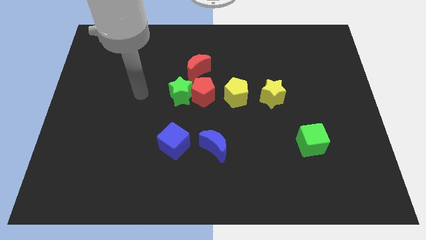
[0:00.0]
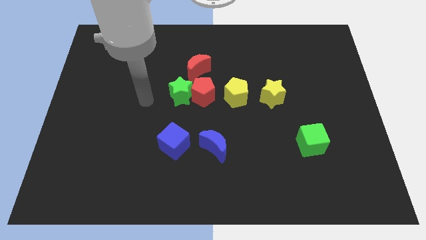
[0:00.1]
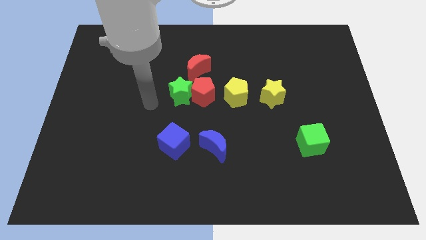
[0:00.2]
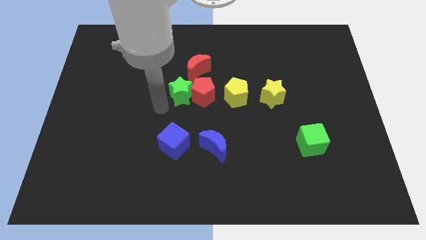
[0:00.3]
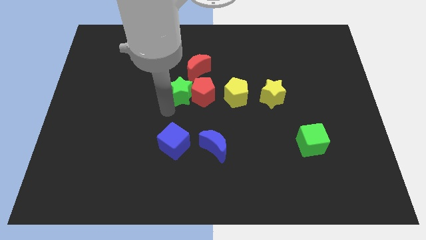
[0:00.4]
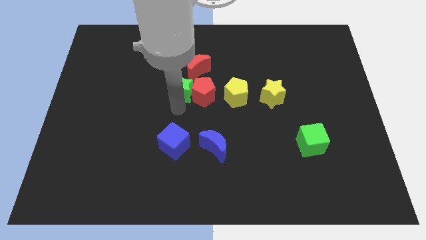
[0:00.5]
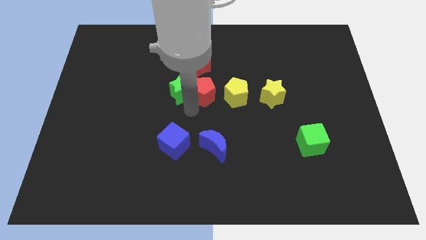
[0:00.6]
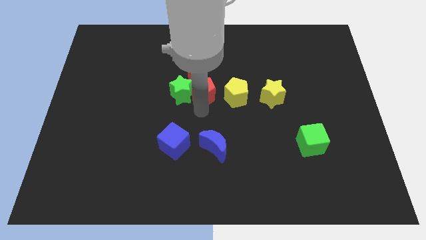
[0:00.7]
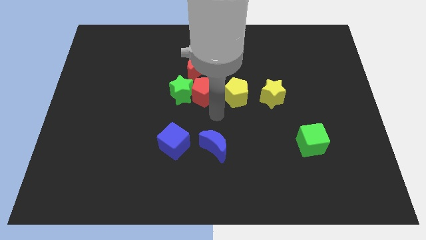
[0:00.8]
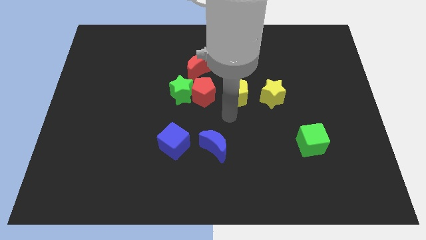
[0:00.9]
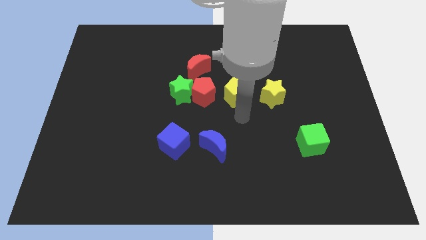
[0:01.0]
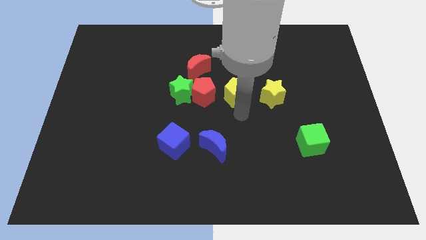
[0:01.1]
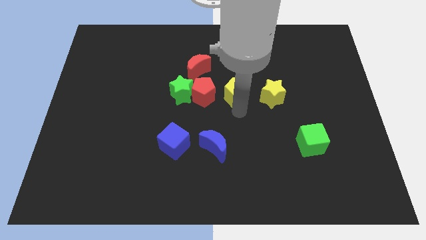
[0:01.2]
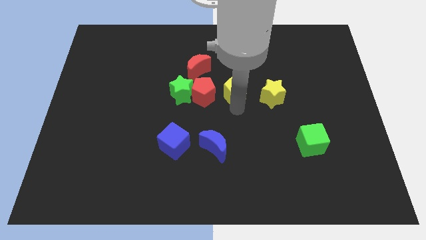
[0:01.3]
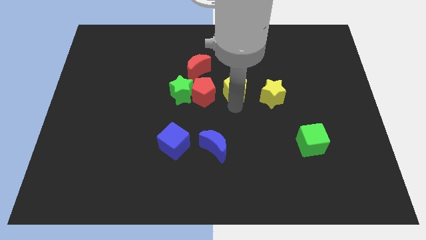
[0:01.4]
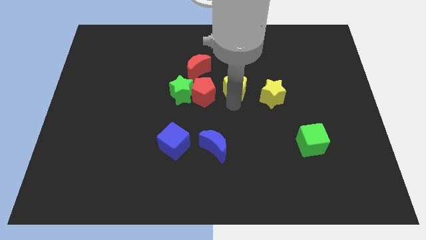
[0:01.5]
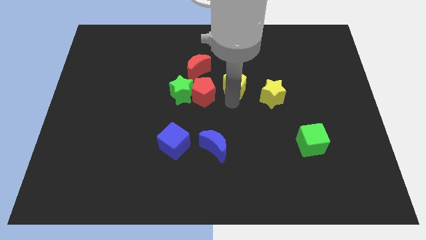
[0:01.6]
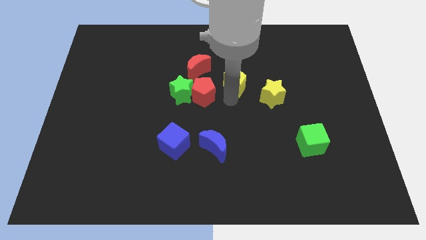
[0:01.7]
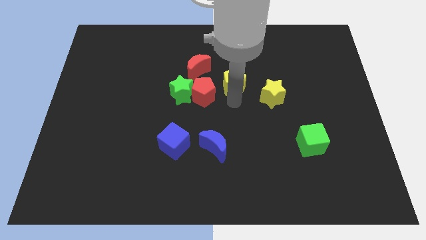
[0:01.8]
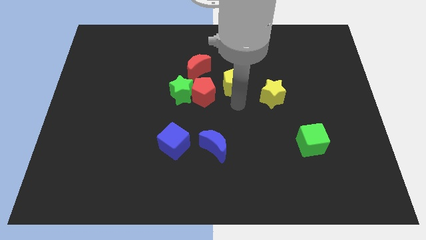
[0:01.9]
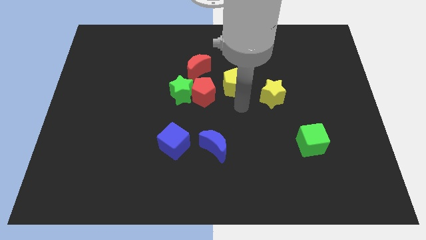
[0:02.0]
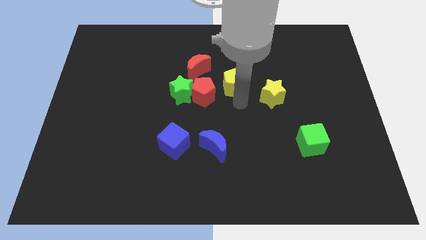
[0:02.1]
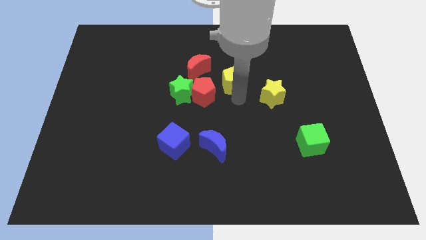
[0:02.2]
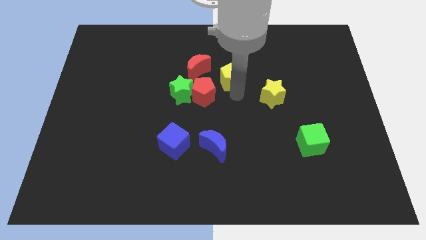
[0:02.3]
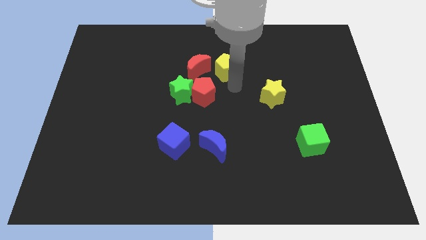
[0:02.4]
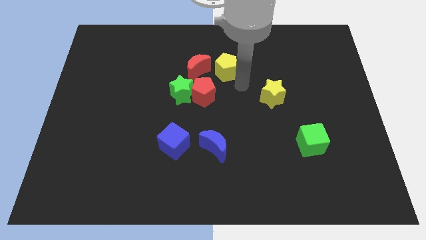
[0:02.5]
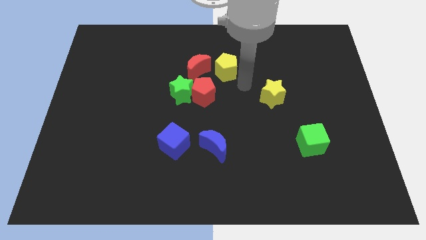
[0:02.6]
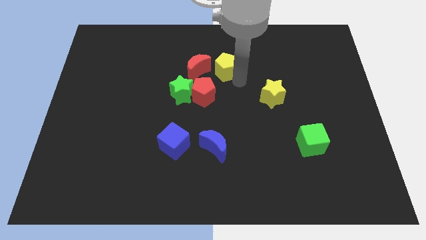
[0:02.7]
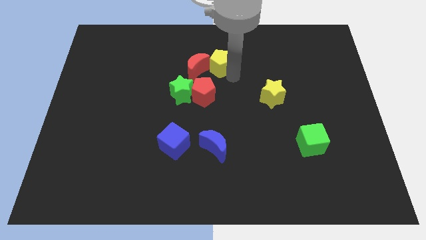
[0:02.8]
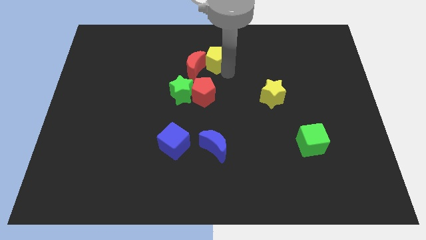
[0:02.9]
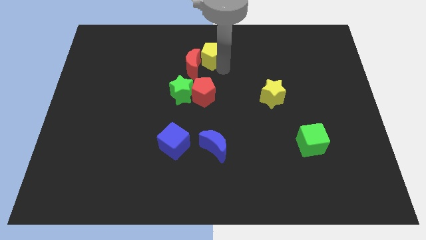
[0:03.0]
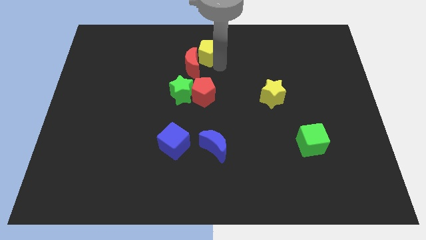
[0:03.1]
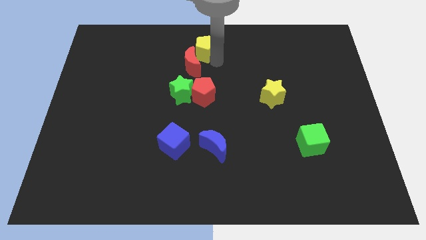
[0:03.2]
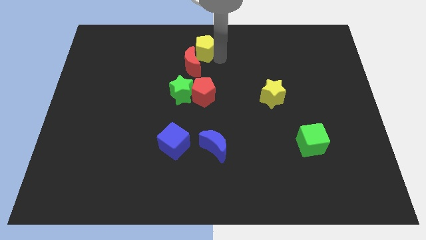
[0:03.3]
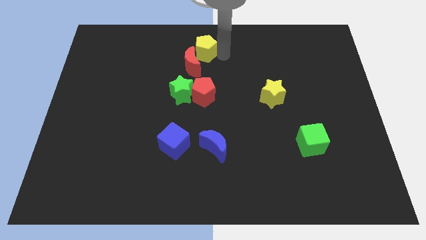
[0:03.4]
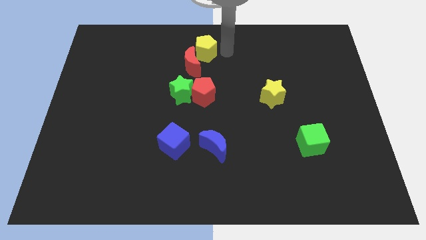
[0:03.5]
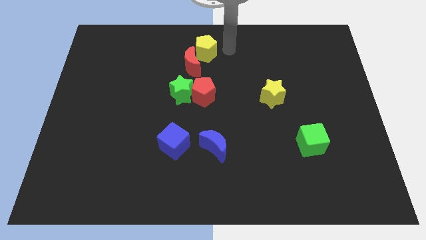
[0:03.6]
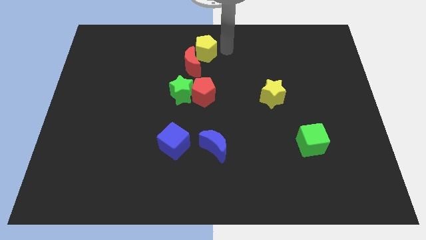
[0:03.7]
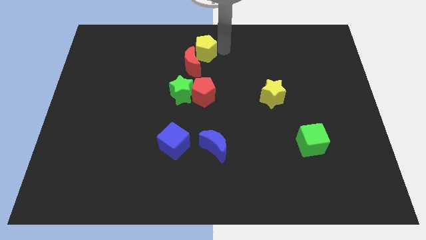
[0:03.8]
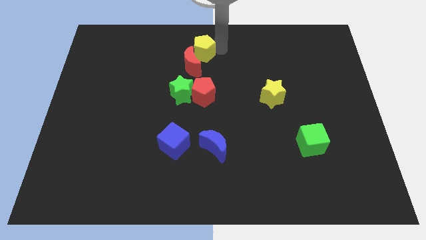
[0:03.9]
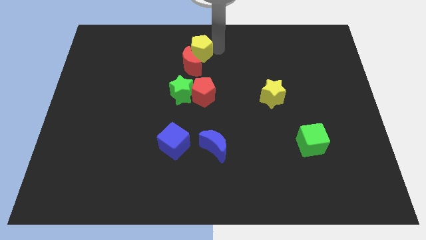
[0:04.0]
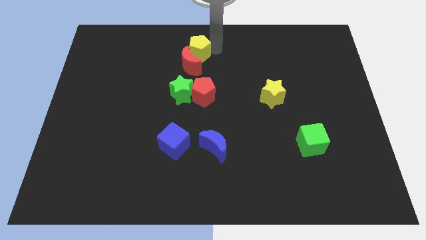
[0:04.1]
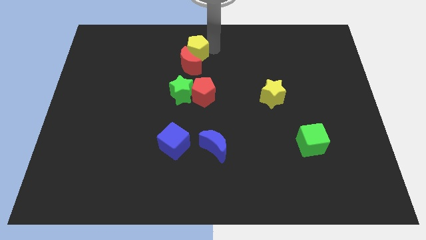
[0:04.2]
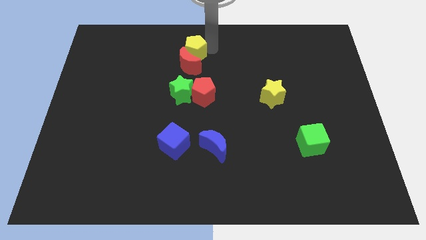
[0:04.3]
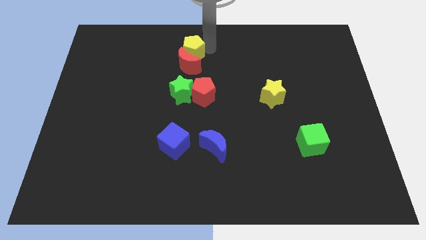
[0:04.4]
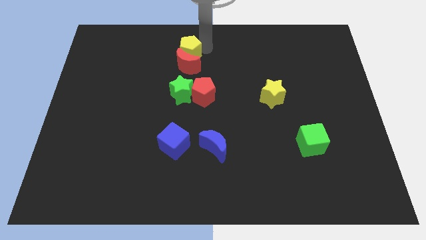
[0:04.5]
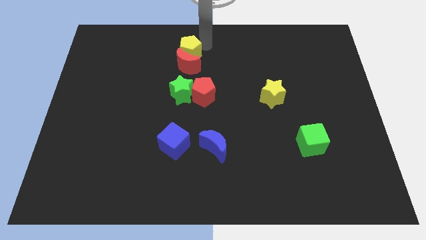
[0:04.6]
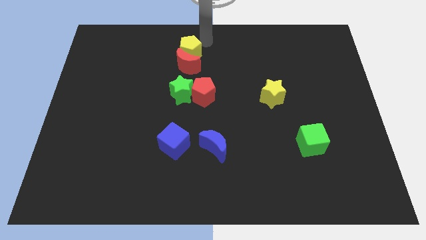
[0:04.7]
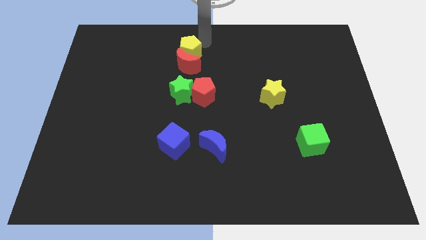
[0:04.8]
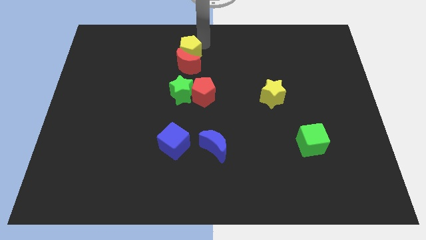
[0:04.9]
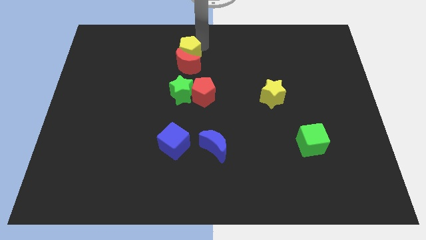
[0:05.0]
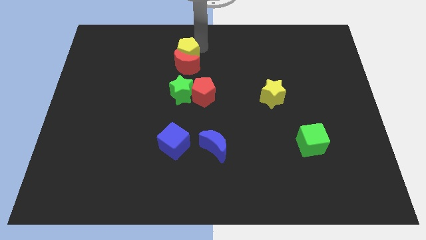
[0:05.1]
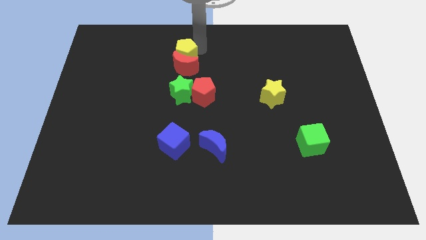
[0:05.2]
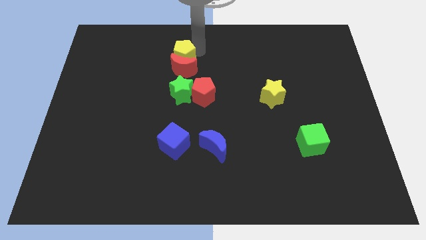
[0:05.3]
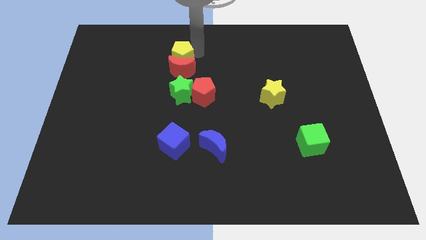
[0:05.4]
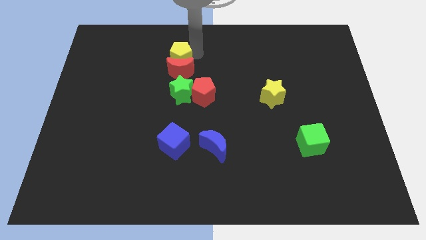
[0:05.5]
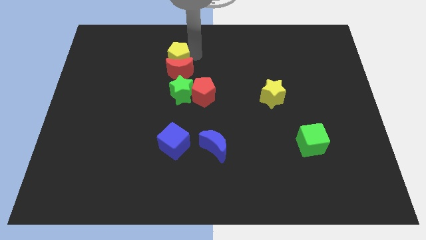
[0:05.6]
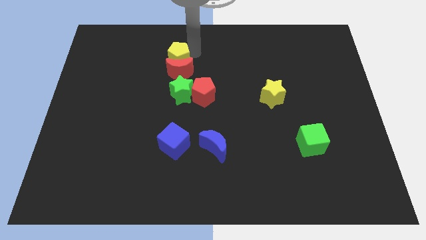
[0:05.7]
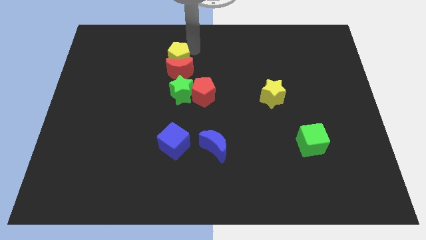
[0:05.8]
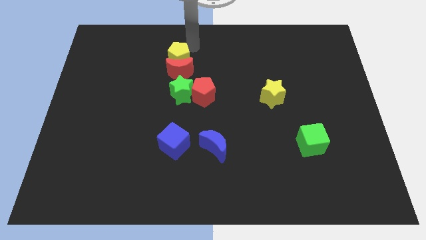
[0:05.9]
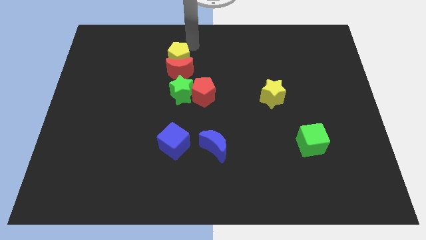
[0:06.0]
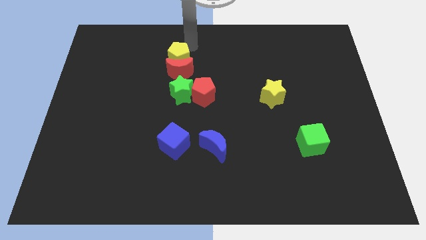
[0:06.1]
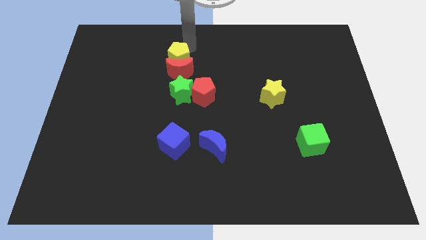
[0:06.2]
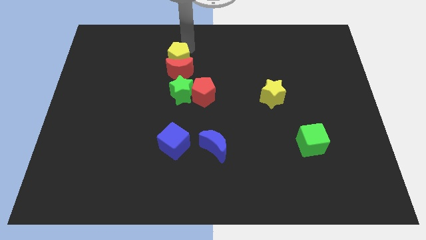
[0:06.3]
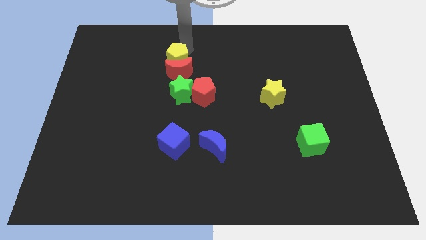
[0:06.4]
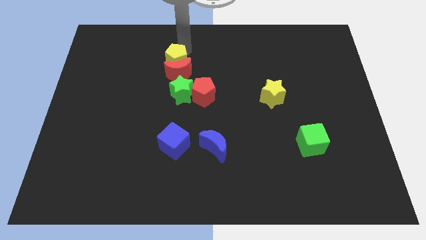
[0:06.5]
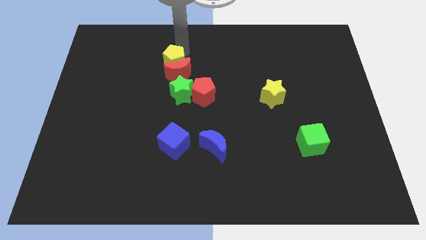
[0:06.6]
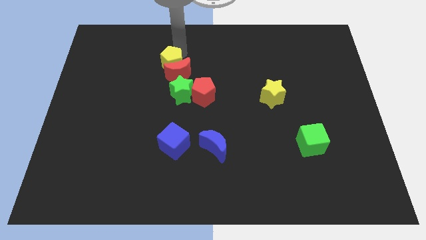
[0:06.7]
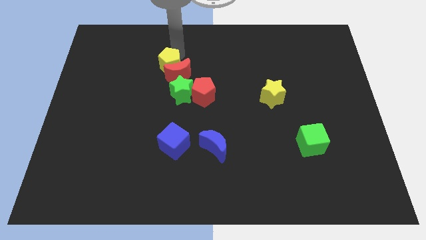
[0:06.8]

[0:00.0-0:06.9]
slide the yellow pentagon to the top left side of the green star
